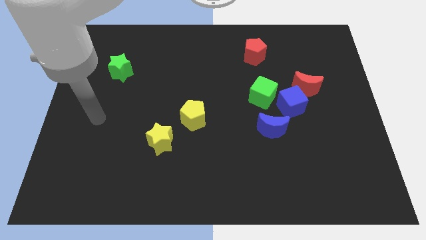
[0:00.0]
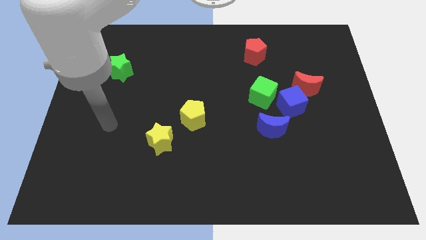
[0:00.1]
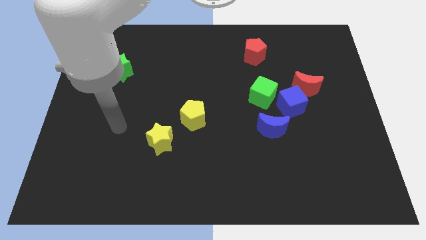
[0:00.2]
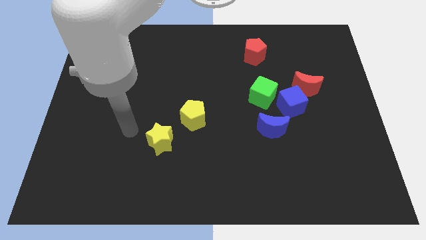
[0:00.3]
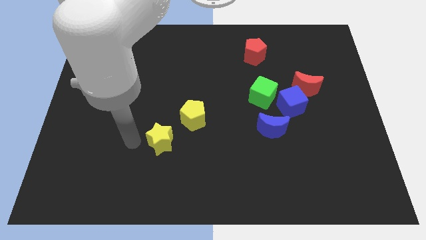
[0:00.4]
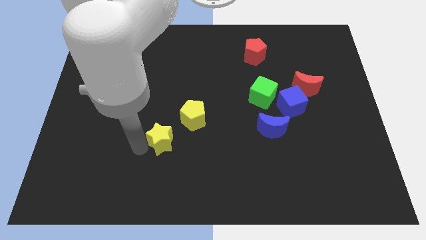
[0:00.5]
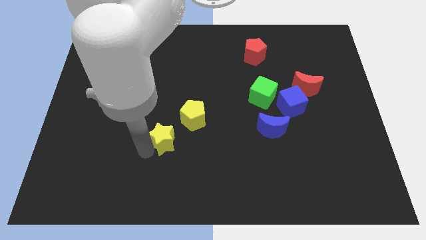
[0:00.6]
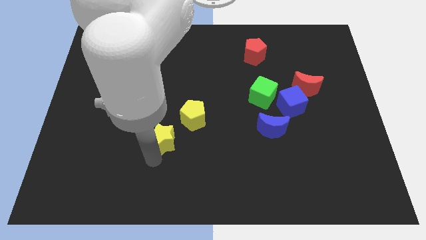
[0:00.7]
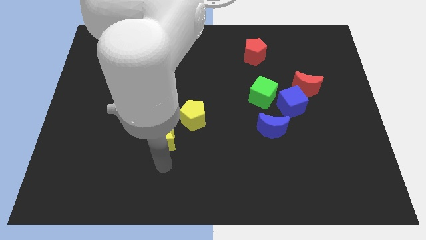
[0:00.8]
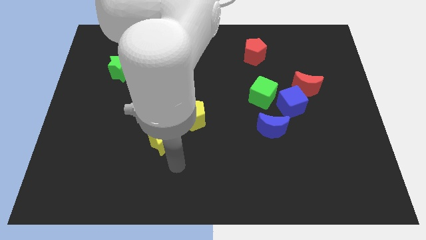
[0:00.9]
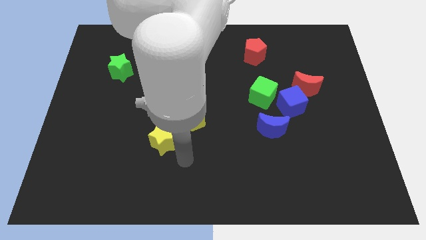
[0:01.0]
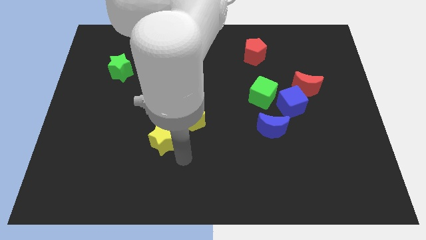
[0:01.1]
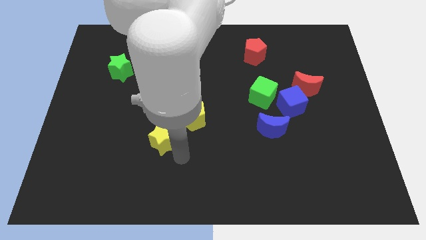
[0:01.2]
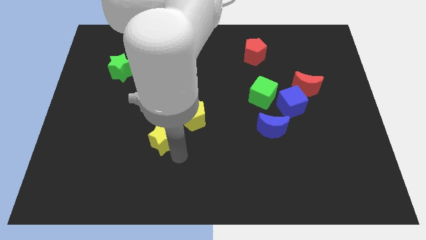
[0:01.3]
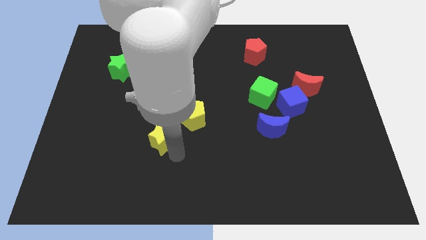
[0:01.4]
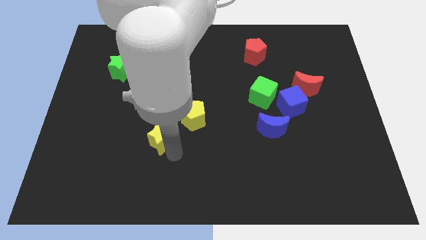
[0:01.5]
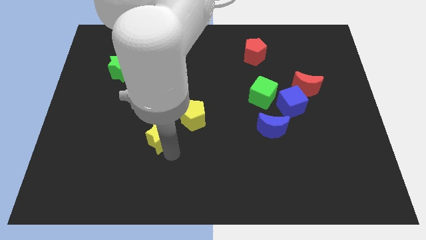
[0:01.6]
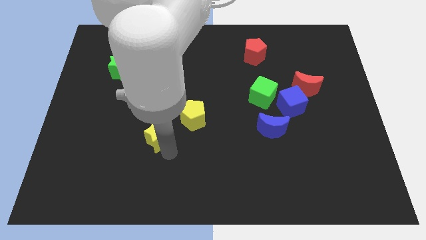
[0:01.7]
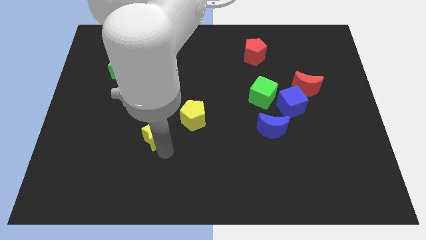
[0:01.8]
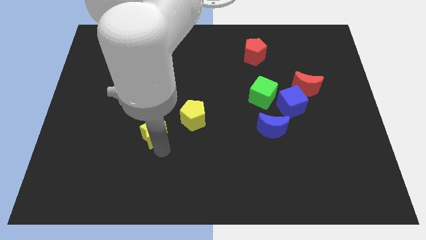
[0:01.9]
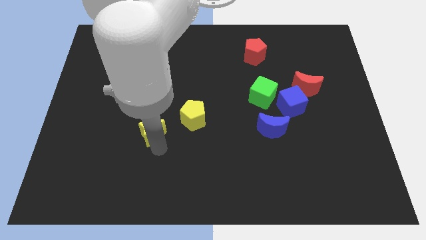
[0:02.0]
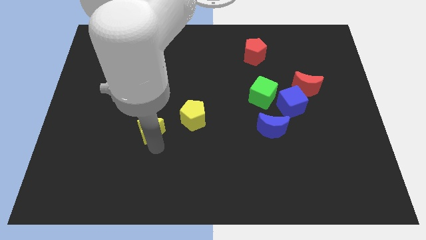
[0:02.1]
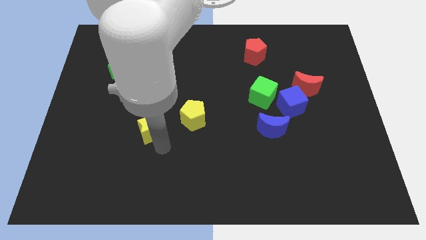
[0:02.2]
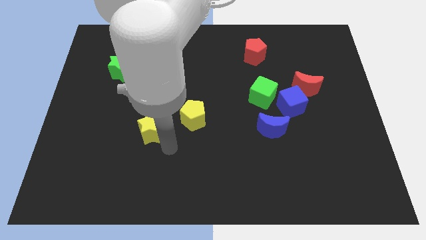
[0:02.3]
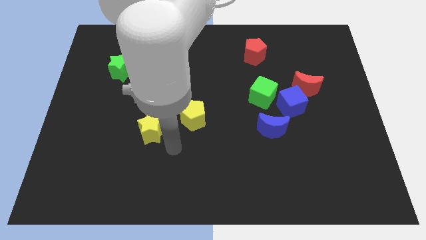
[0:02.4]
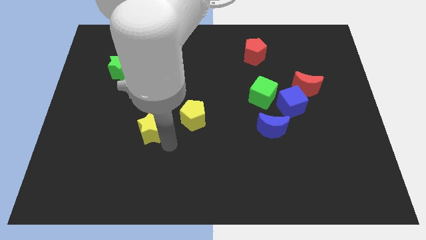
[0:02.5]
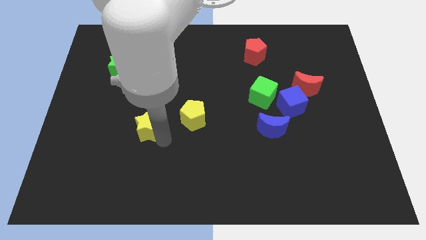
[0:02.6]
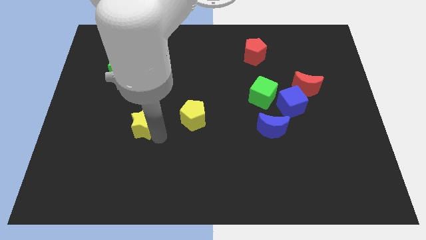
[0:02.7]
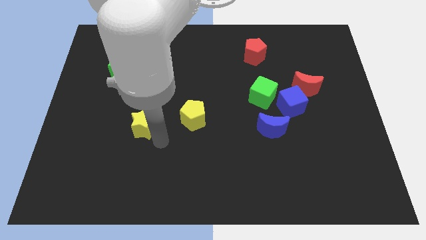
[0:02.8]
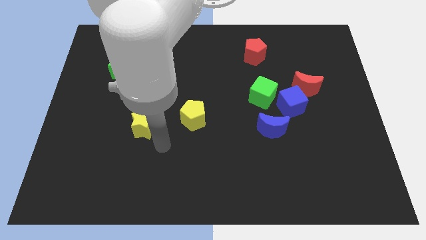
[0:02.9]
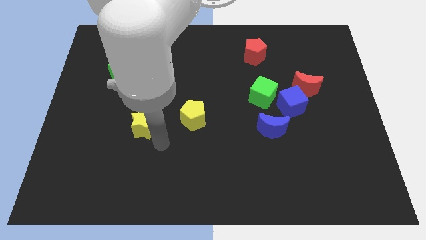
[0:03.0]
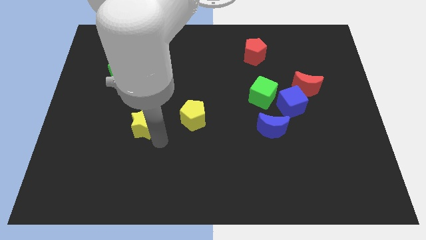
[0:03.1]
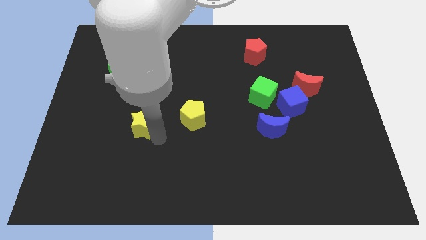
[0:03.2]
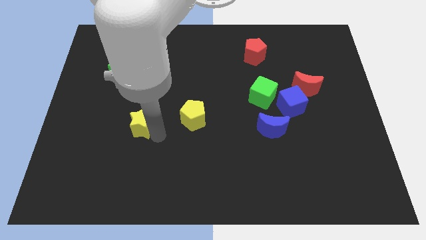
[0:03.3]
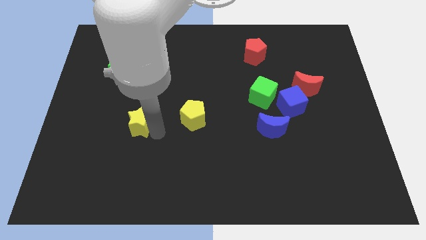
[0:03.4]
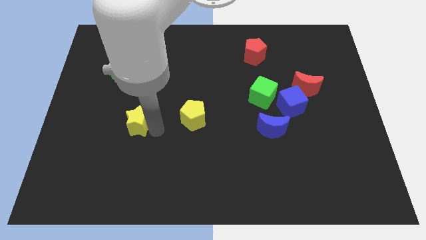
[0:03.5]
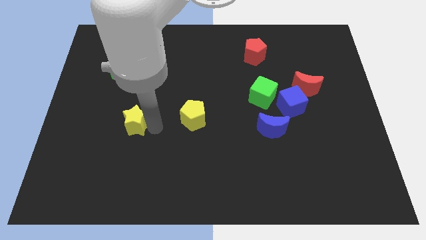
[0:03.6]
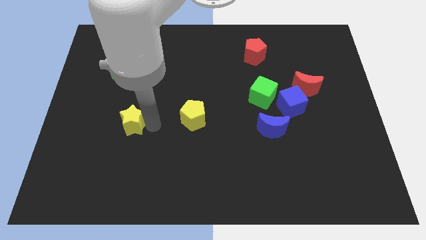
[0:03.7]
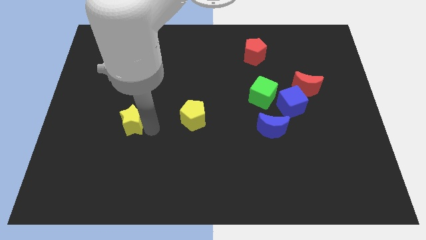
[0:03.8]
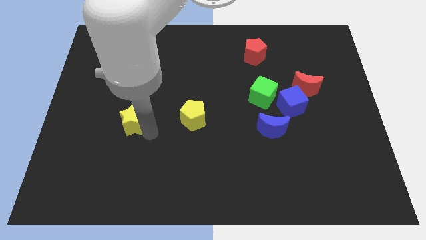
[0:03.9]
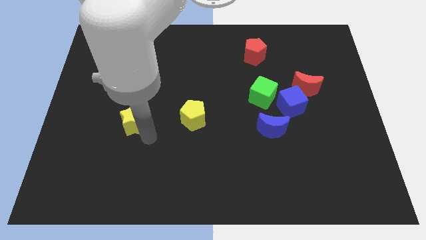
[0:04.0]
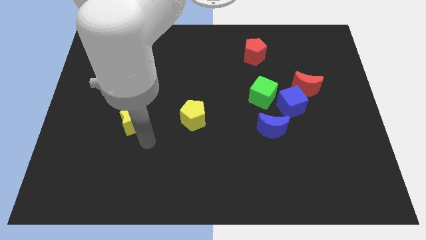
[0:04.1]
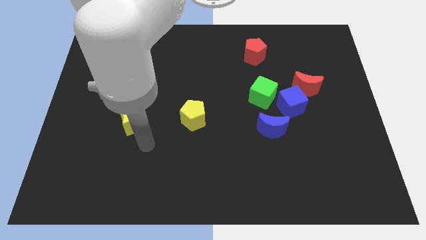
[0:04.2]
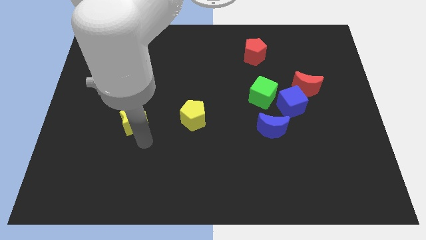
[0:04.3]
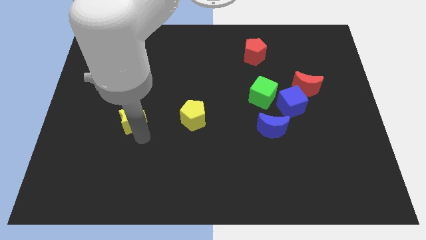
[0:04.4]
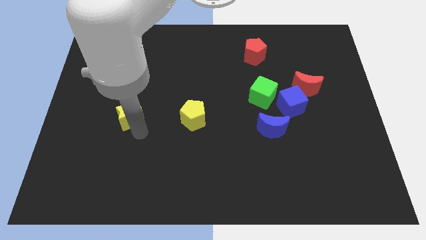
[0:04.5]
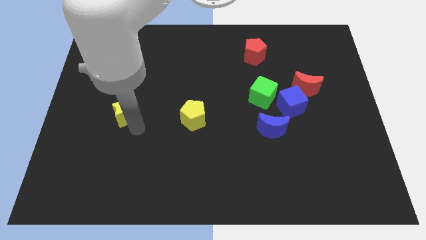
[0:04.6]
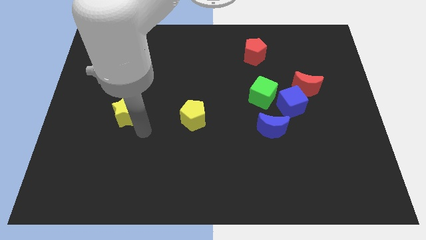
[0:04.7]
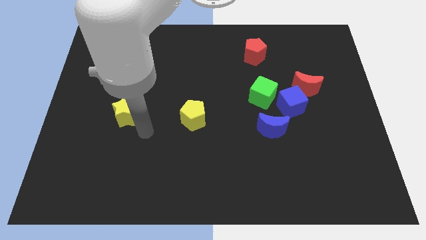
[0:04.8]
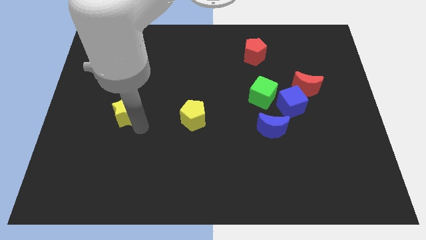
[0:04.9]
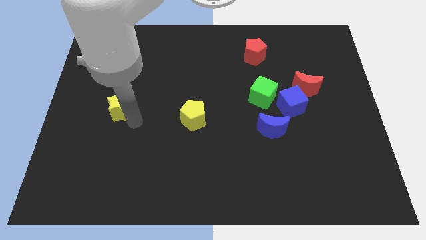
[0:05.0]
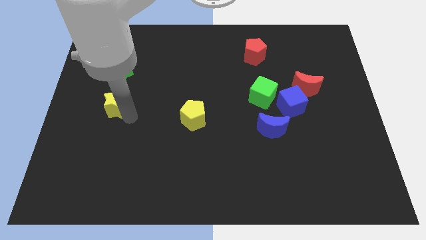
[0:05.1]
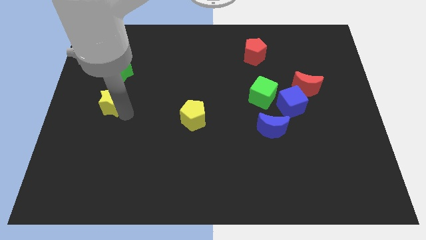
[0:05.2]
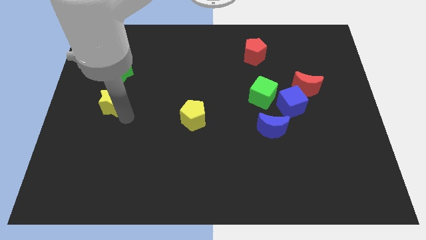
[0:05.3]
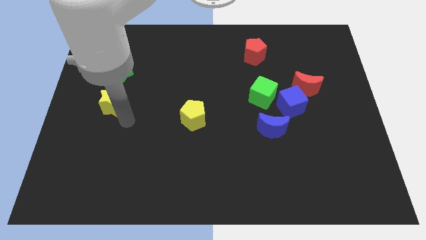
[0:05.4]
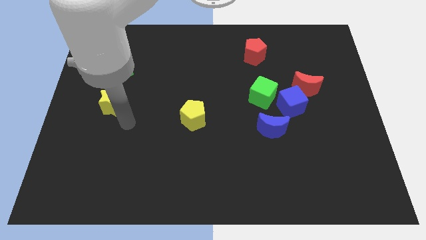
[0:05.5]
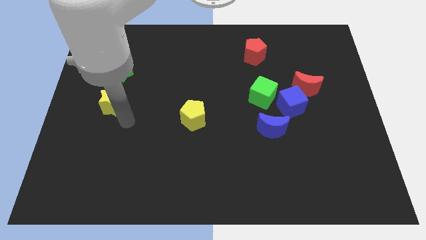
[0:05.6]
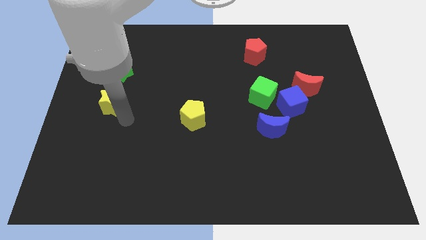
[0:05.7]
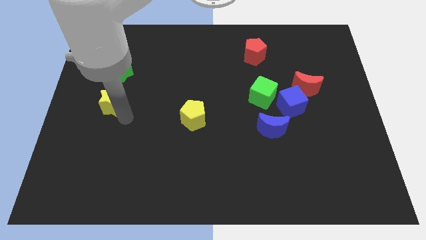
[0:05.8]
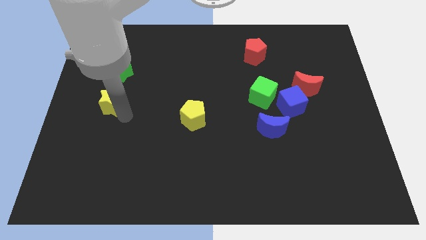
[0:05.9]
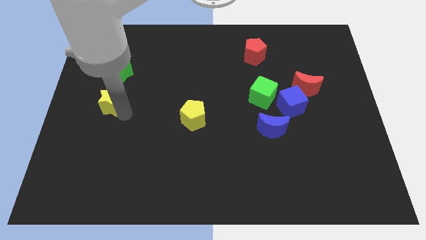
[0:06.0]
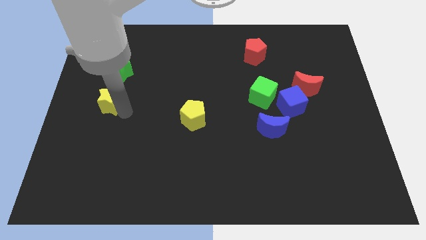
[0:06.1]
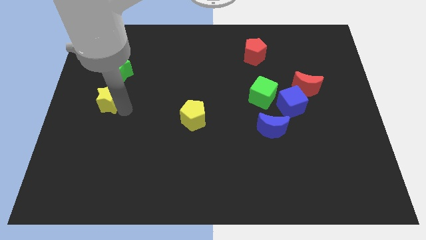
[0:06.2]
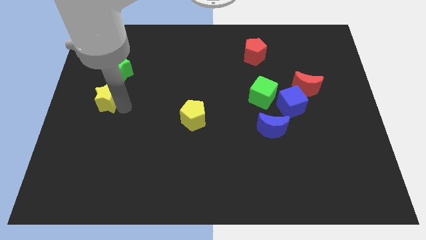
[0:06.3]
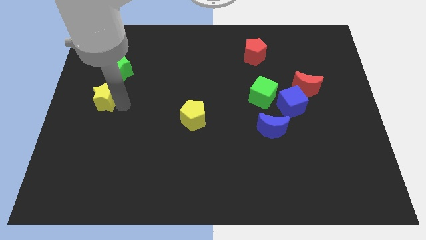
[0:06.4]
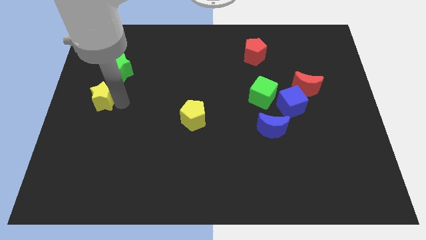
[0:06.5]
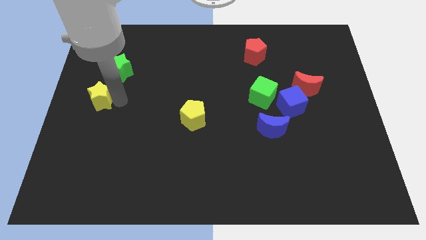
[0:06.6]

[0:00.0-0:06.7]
slide the yellow star to the bottom left of the green star
